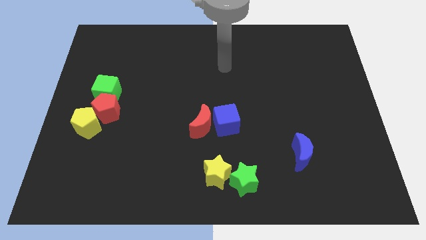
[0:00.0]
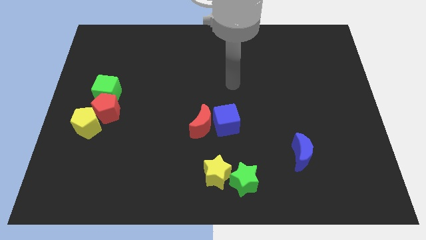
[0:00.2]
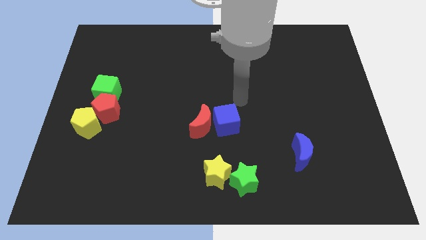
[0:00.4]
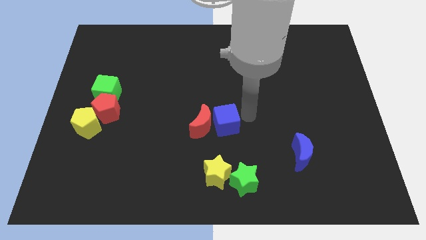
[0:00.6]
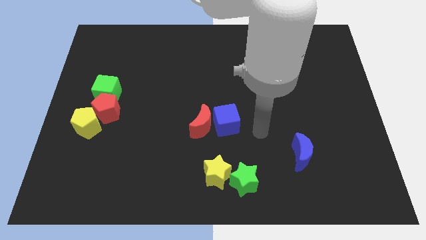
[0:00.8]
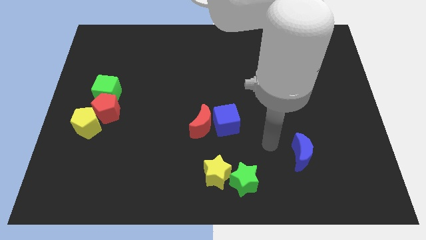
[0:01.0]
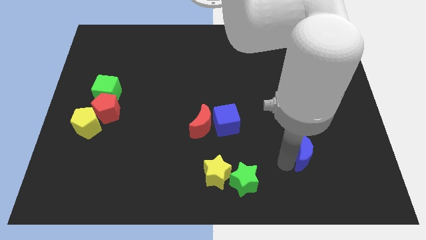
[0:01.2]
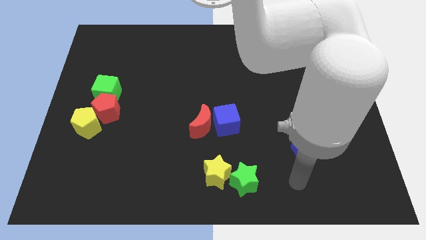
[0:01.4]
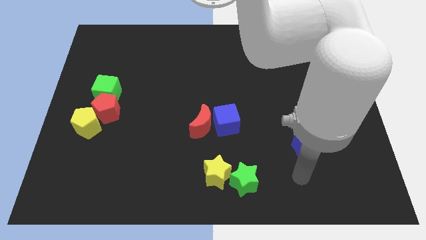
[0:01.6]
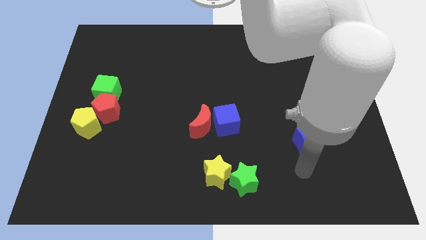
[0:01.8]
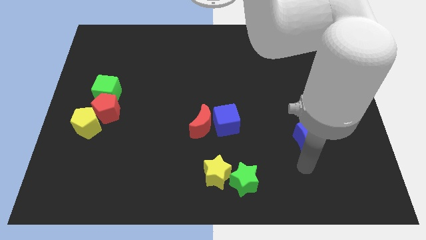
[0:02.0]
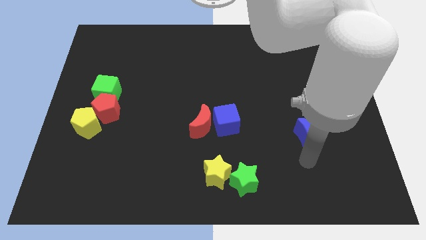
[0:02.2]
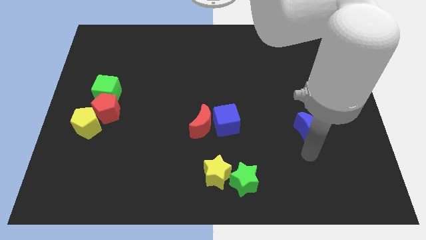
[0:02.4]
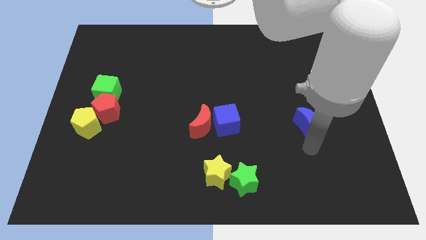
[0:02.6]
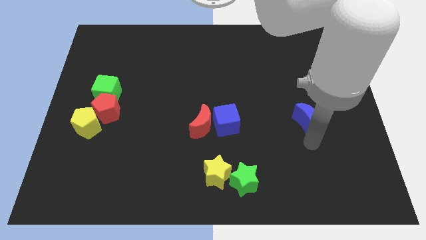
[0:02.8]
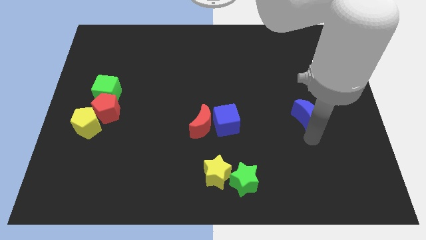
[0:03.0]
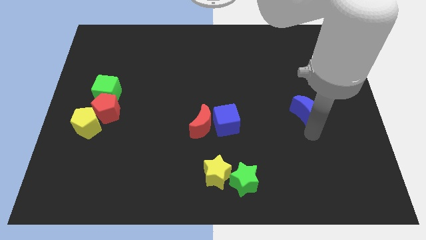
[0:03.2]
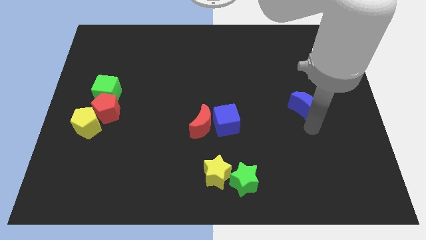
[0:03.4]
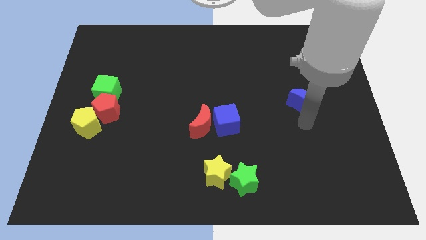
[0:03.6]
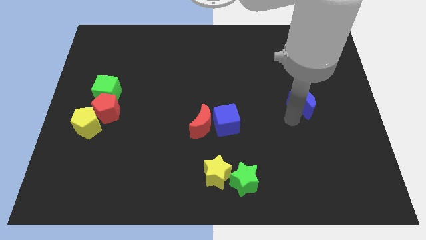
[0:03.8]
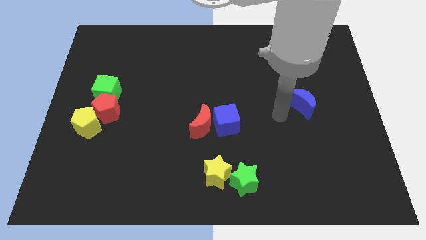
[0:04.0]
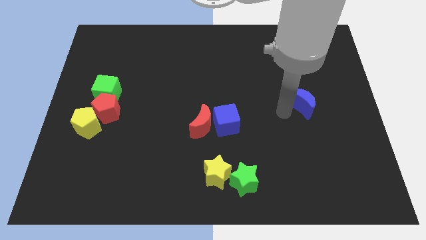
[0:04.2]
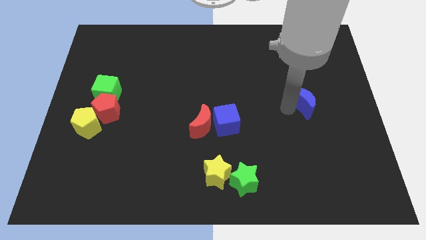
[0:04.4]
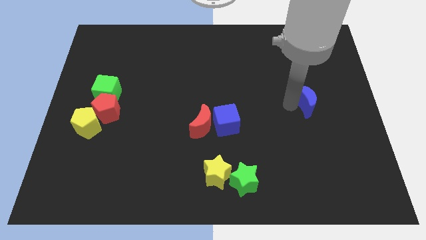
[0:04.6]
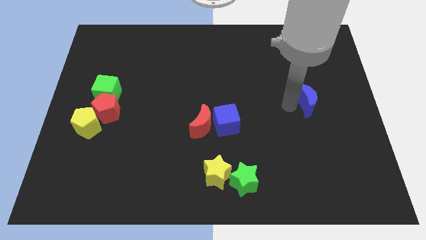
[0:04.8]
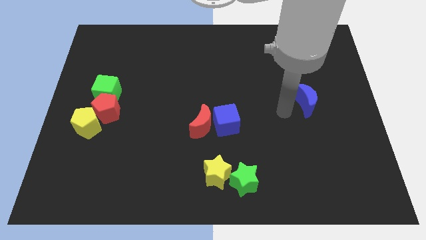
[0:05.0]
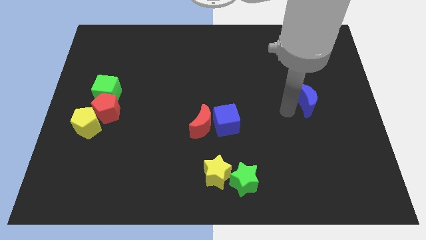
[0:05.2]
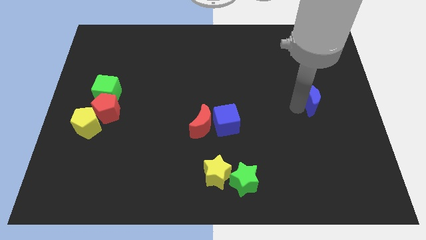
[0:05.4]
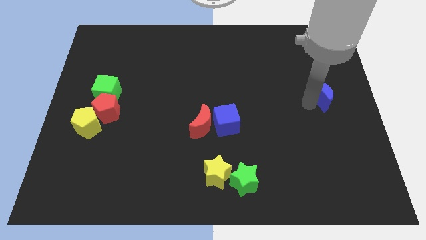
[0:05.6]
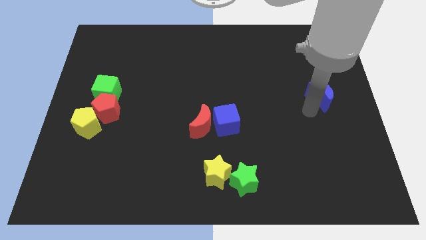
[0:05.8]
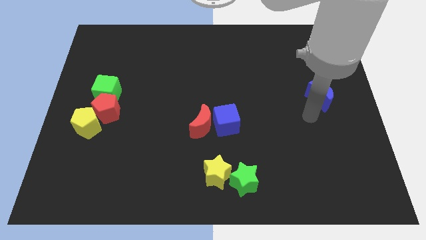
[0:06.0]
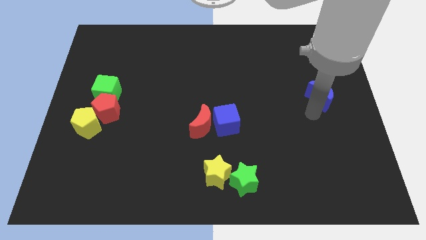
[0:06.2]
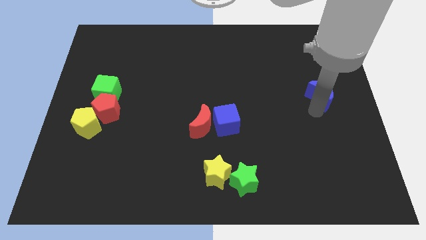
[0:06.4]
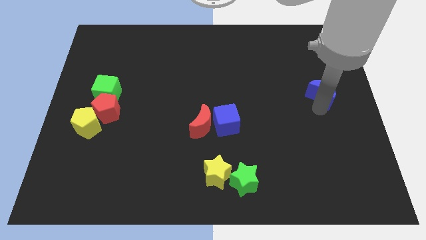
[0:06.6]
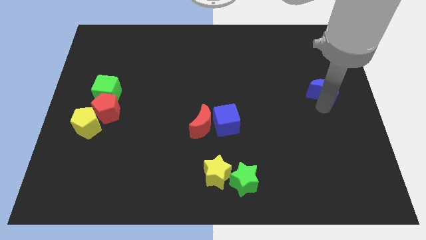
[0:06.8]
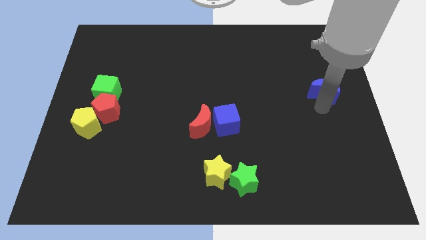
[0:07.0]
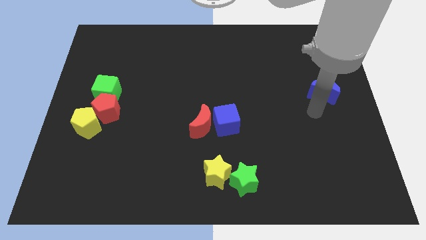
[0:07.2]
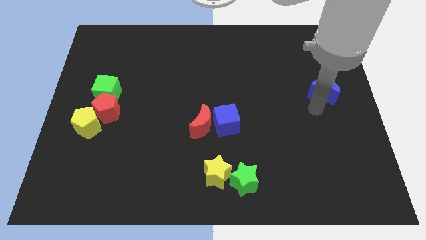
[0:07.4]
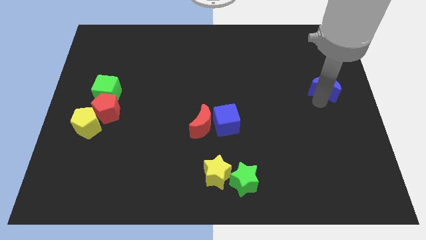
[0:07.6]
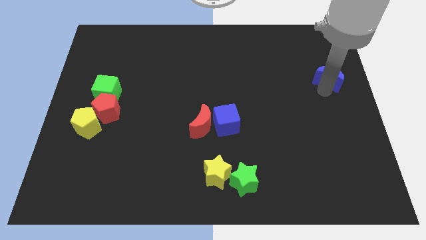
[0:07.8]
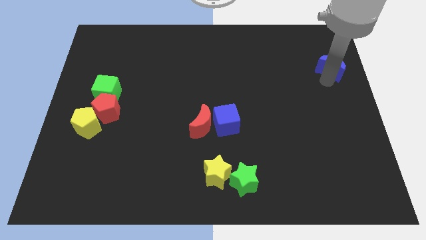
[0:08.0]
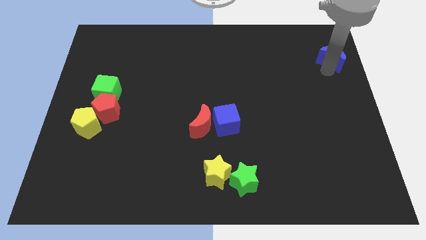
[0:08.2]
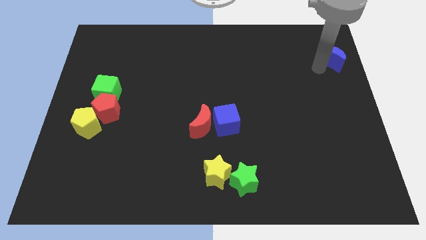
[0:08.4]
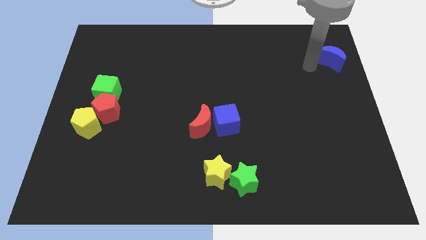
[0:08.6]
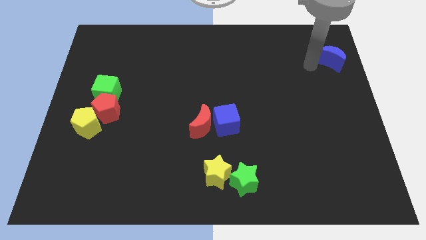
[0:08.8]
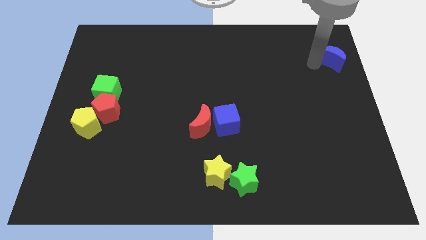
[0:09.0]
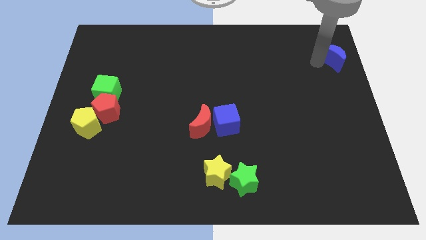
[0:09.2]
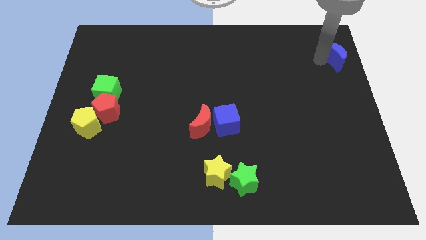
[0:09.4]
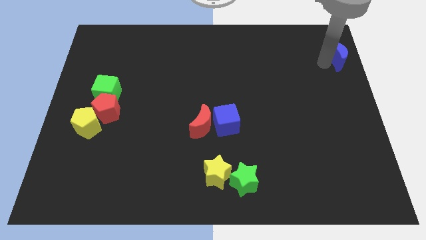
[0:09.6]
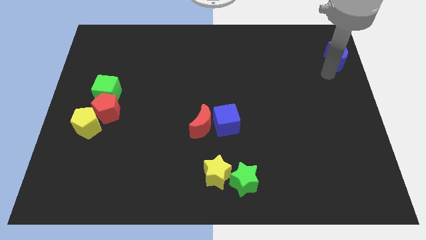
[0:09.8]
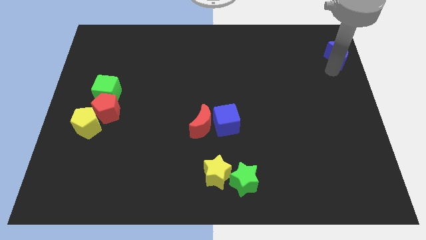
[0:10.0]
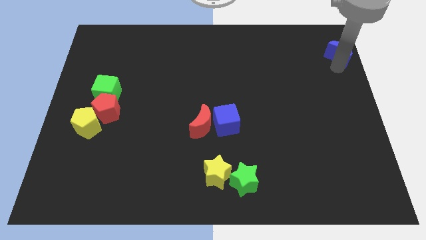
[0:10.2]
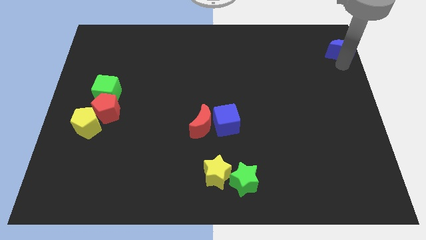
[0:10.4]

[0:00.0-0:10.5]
push the blue moon to the upper right corner

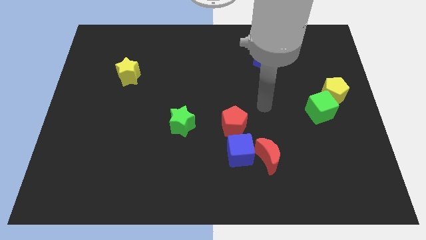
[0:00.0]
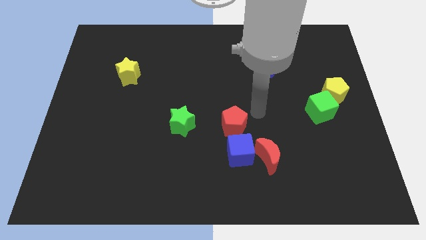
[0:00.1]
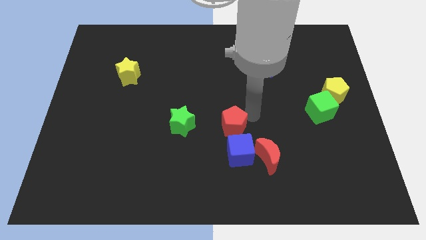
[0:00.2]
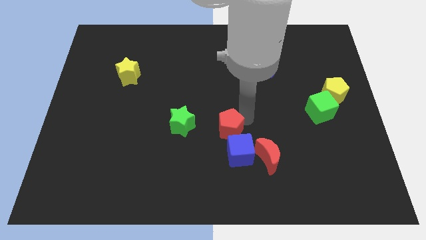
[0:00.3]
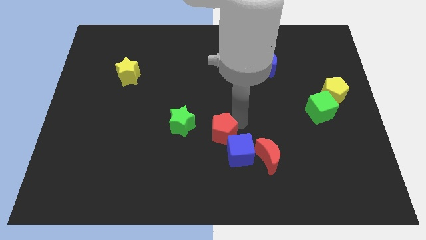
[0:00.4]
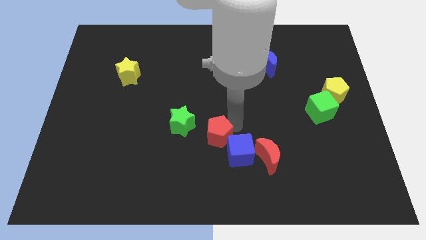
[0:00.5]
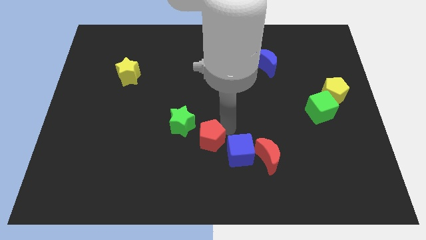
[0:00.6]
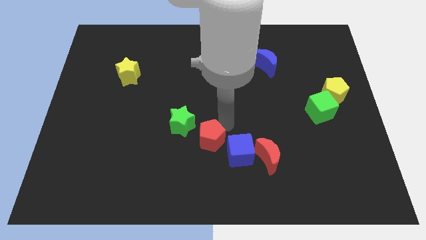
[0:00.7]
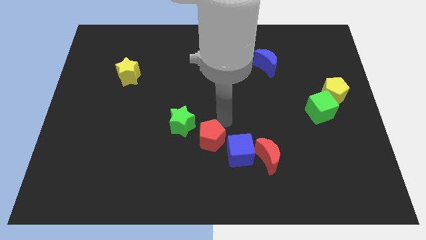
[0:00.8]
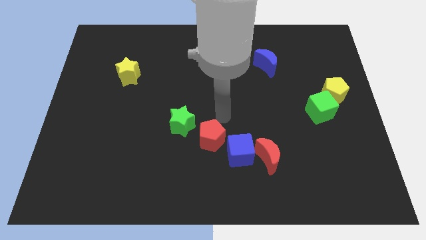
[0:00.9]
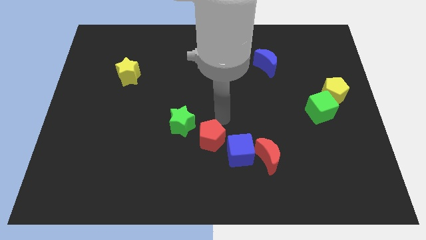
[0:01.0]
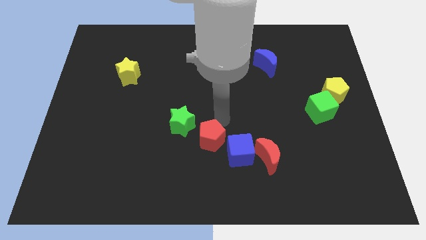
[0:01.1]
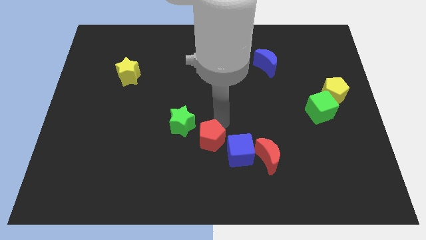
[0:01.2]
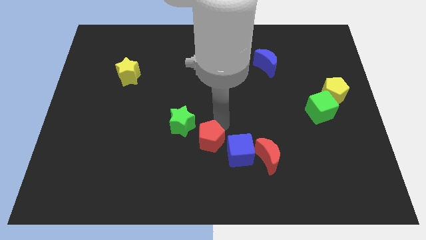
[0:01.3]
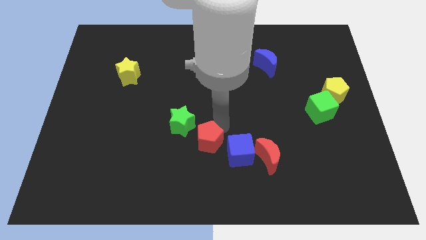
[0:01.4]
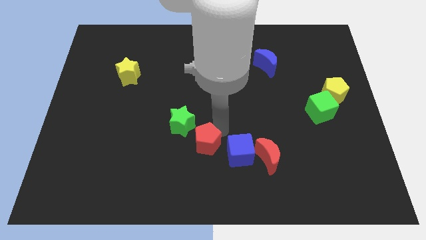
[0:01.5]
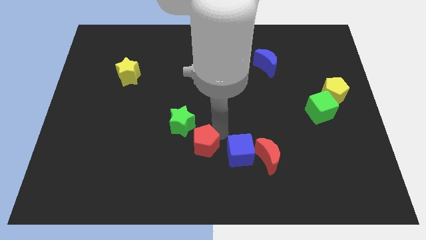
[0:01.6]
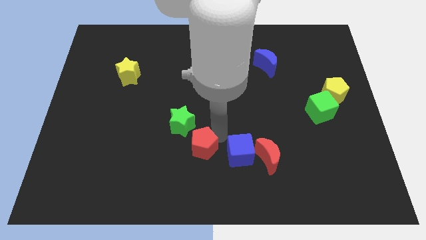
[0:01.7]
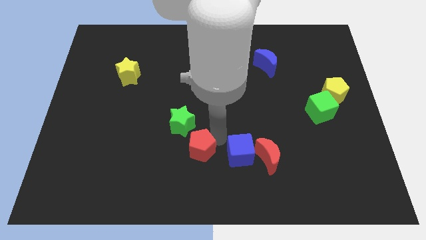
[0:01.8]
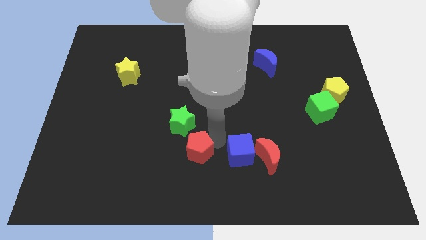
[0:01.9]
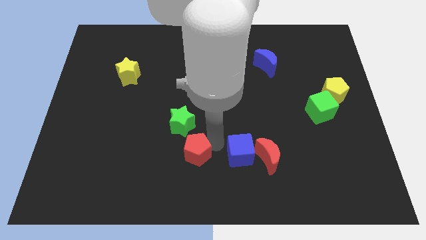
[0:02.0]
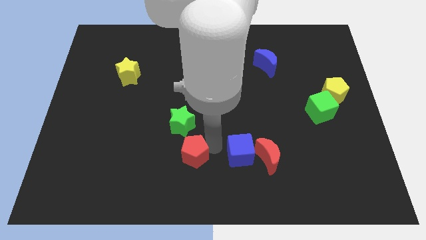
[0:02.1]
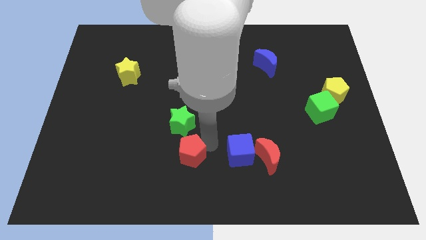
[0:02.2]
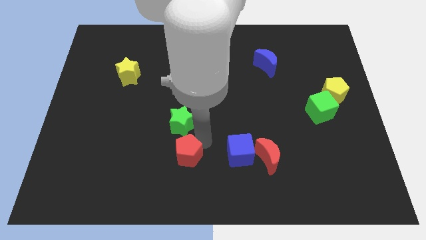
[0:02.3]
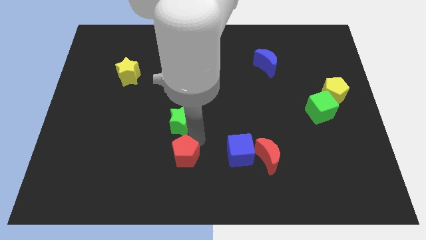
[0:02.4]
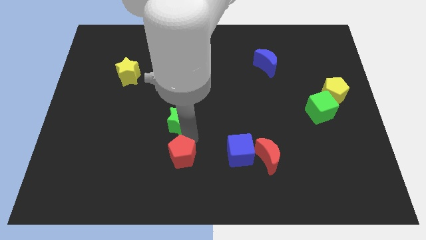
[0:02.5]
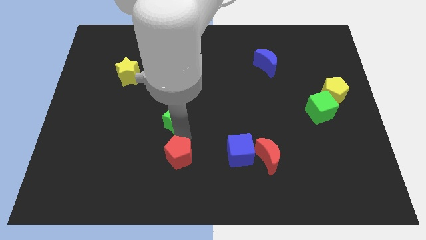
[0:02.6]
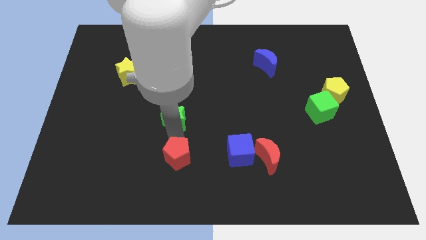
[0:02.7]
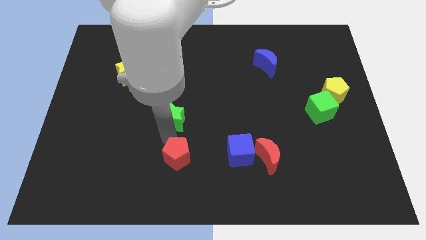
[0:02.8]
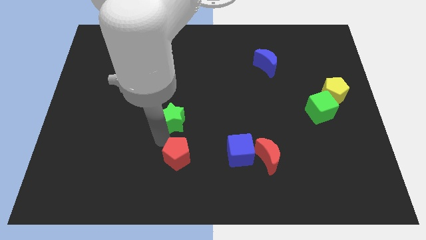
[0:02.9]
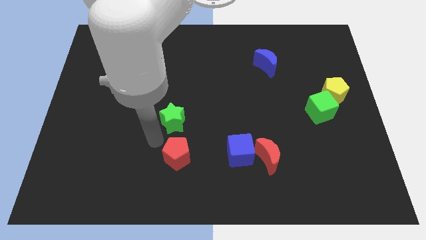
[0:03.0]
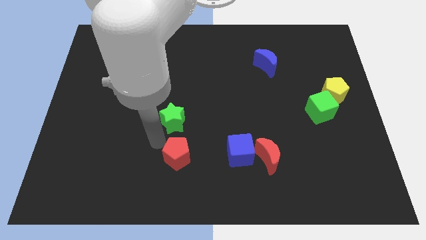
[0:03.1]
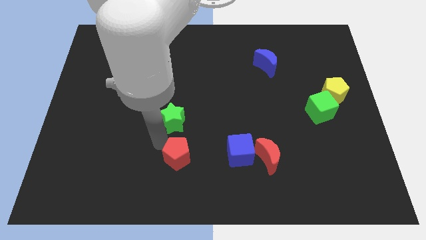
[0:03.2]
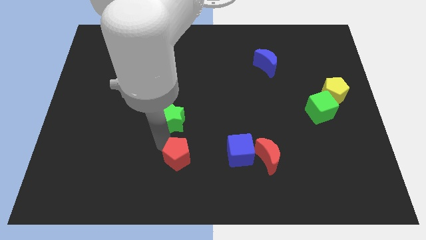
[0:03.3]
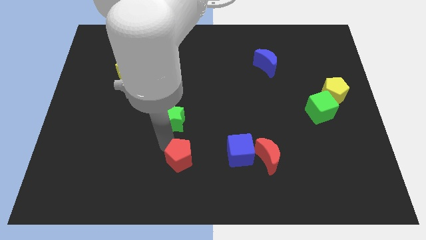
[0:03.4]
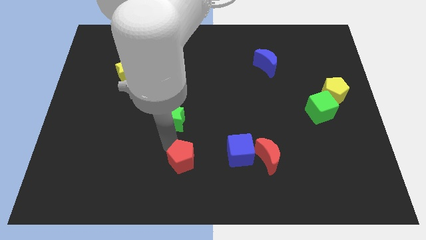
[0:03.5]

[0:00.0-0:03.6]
move the red pentagon to the bottom
